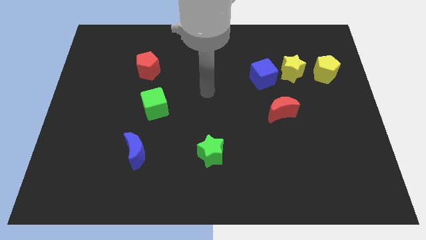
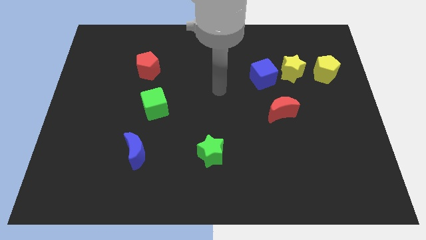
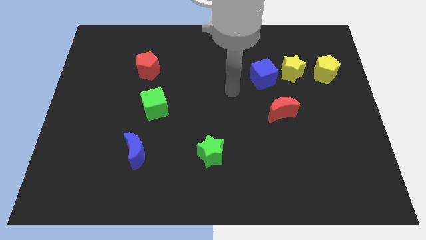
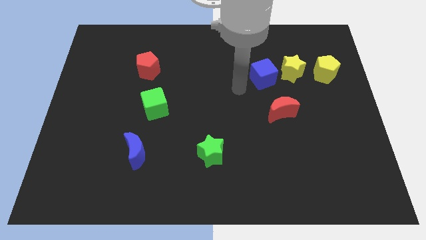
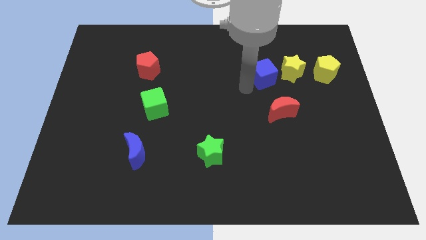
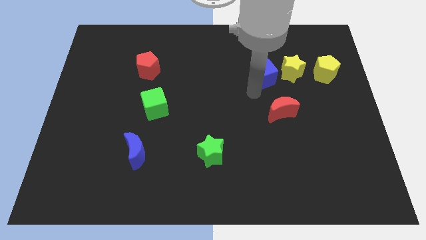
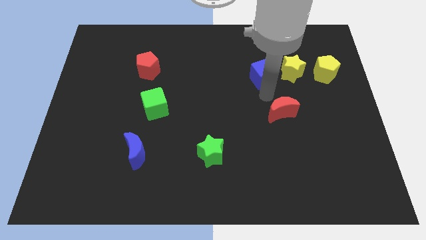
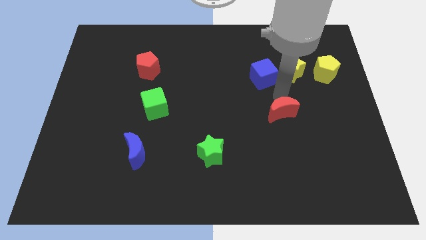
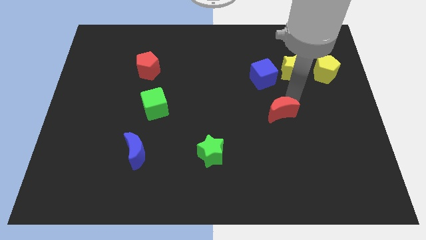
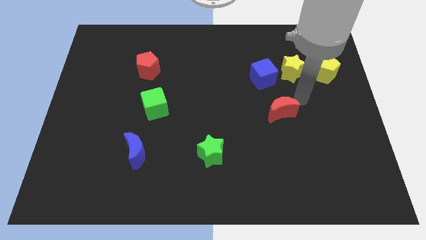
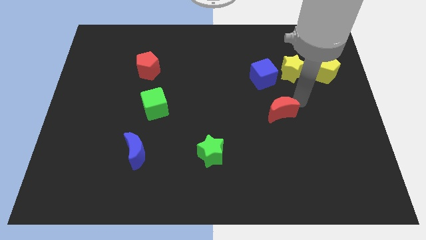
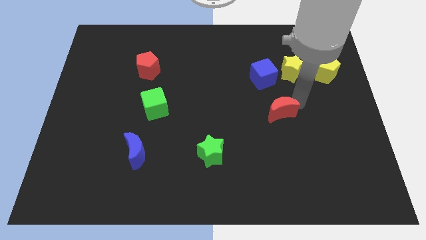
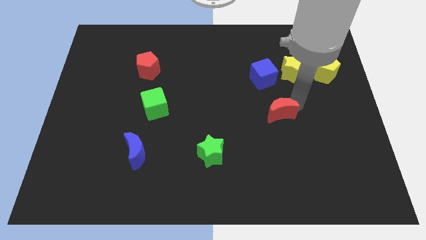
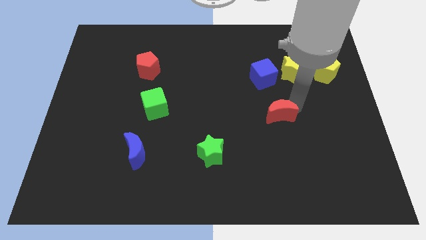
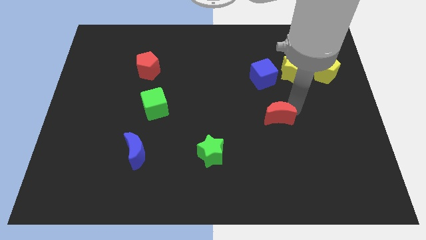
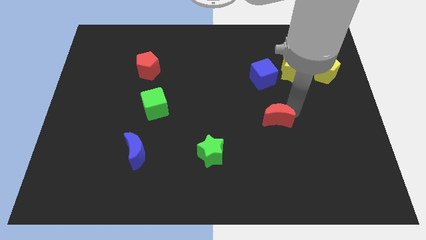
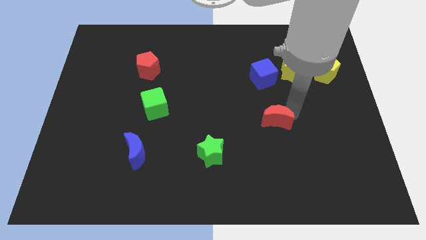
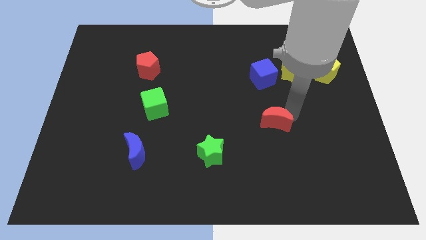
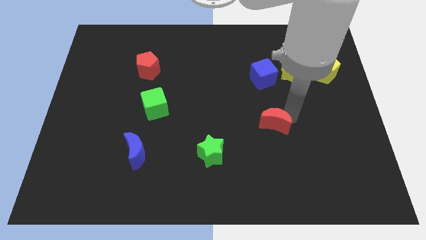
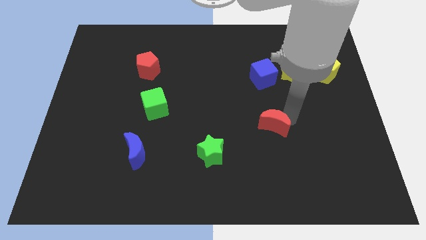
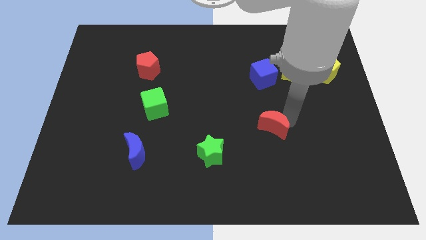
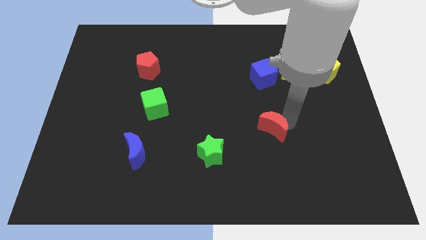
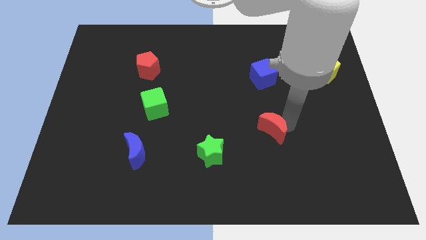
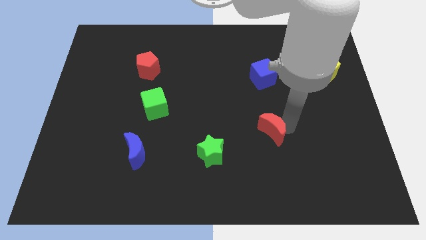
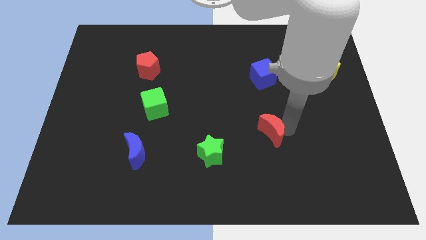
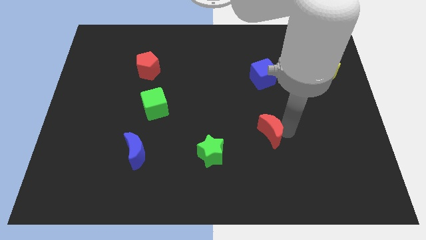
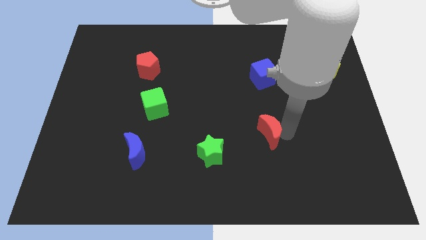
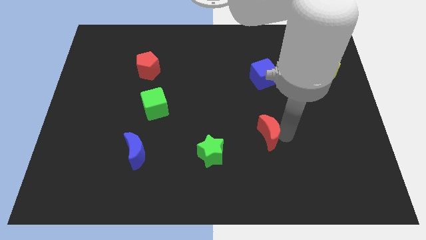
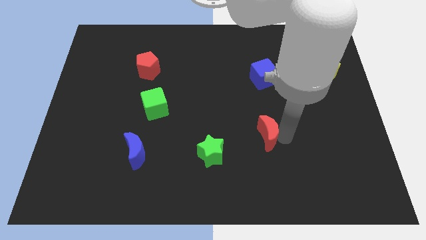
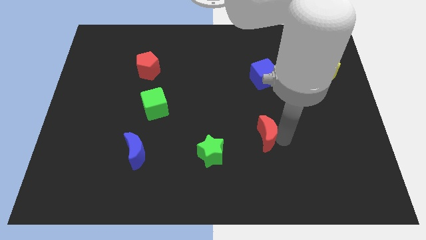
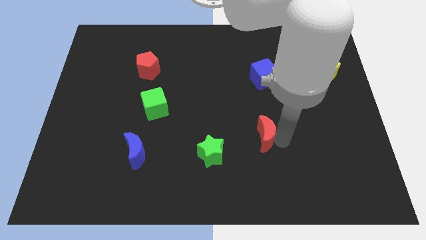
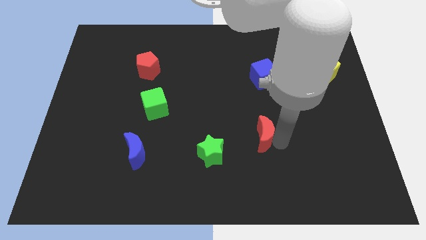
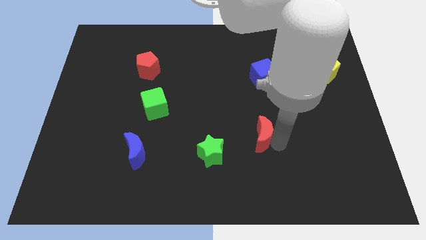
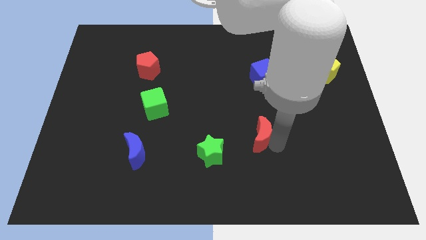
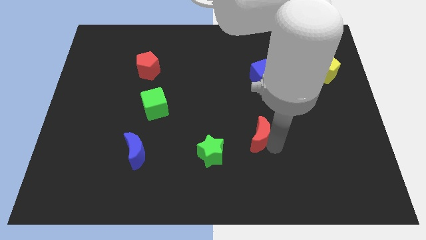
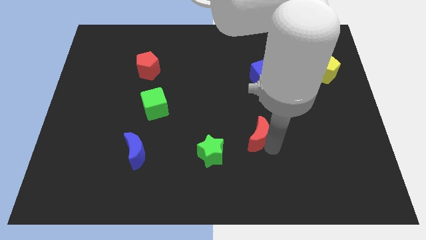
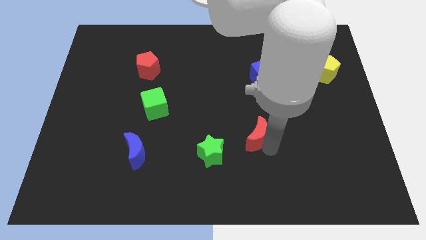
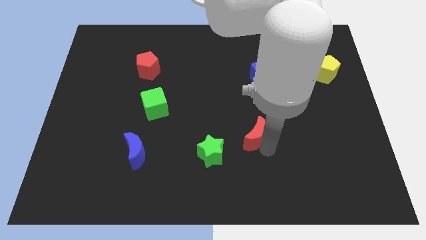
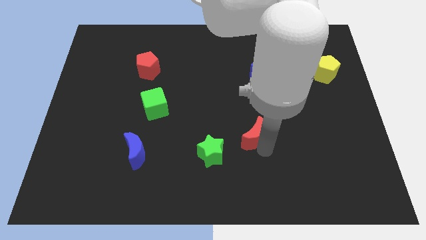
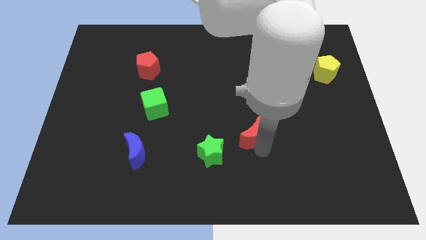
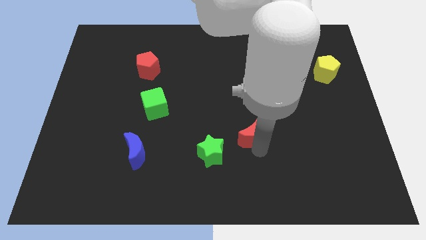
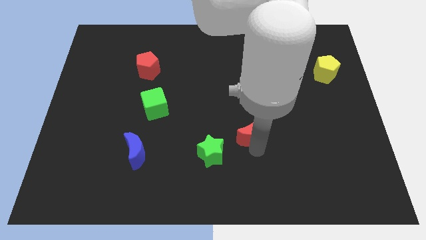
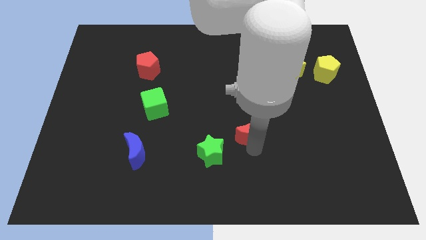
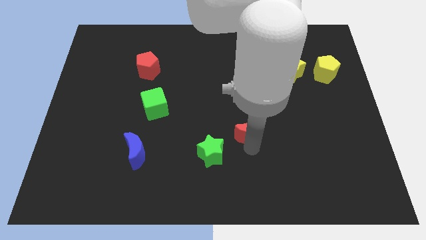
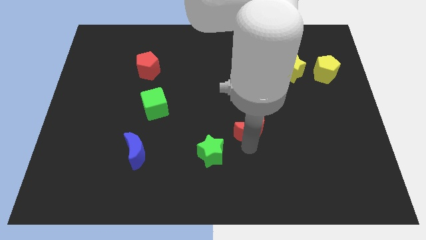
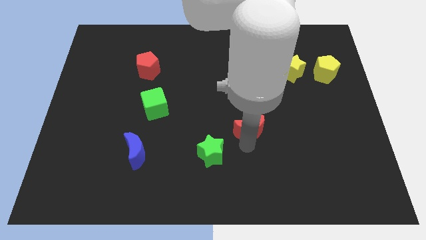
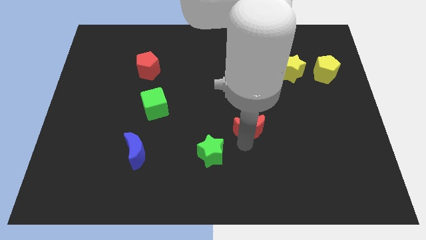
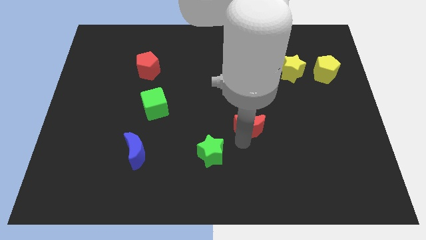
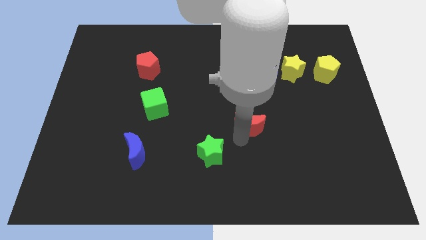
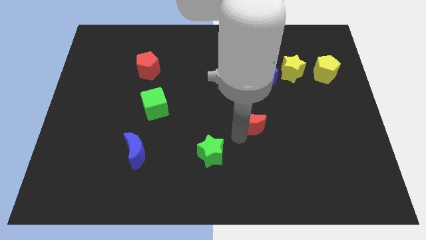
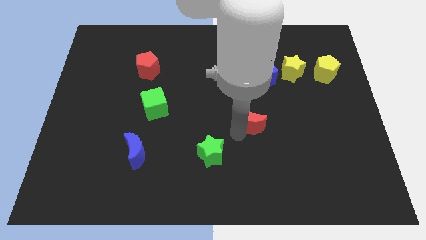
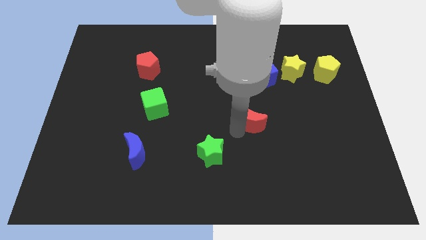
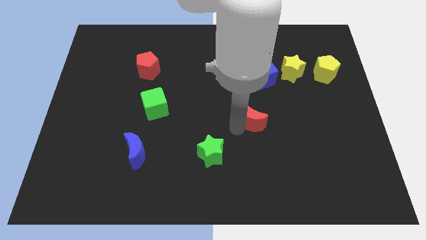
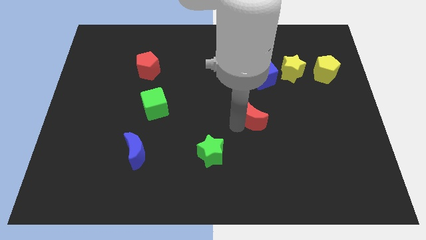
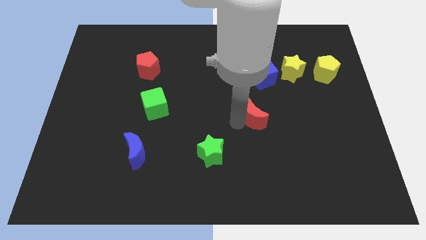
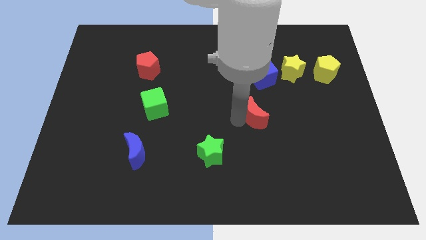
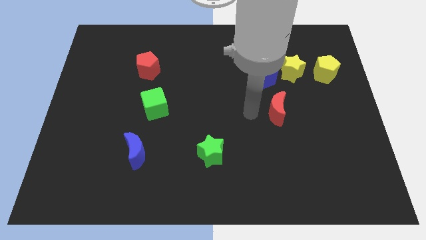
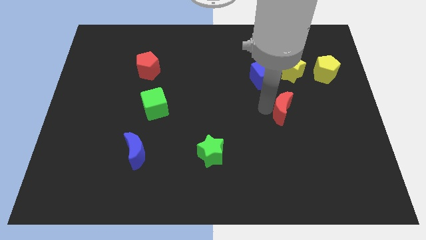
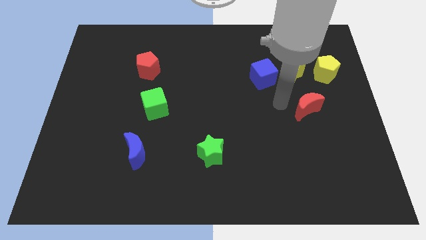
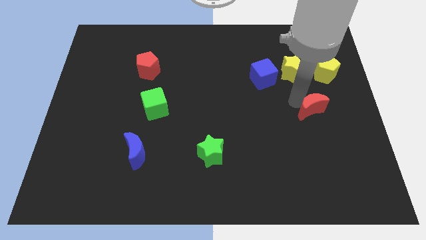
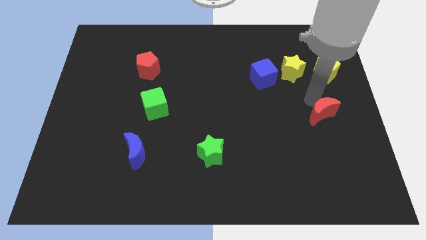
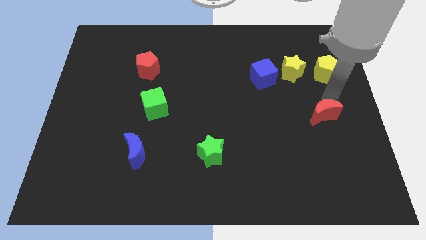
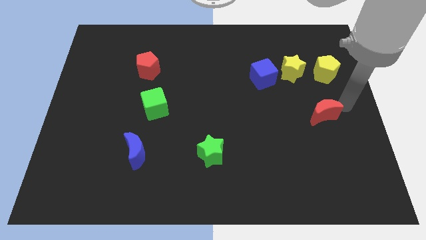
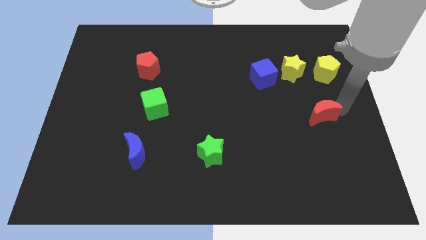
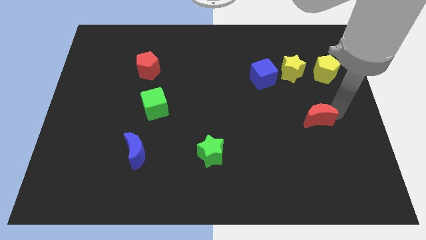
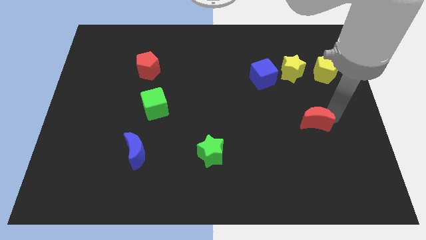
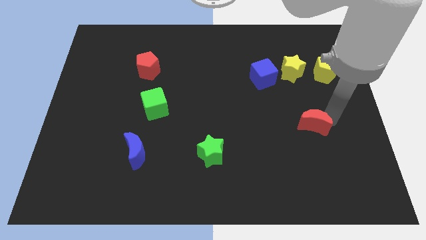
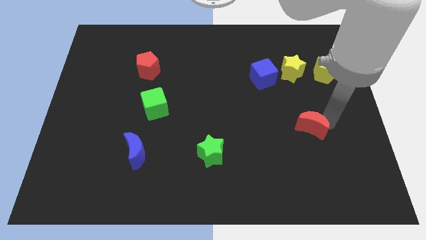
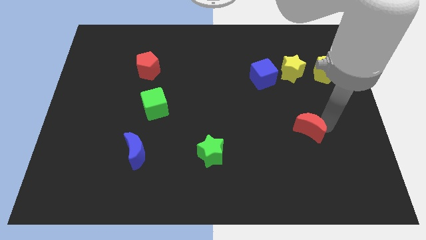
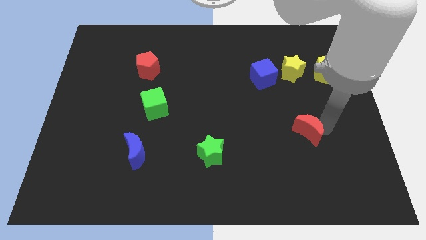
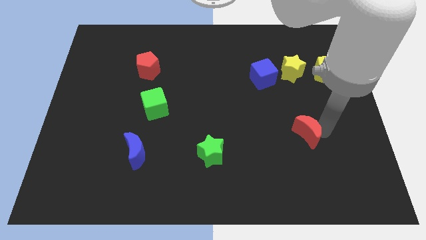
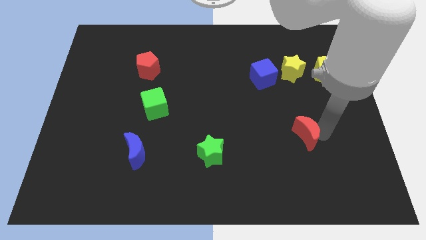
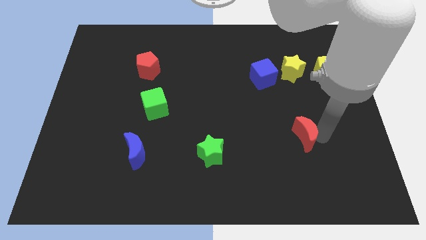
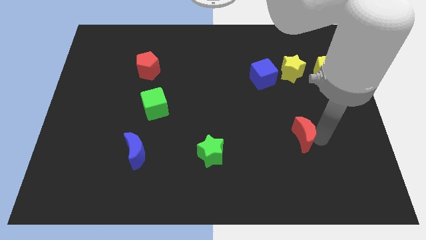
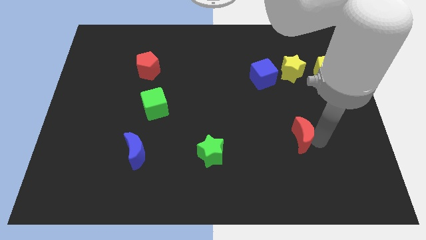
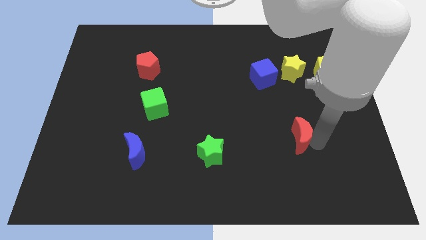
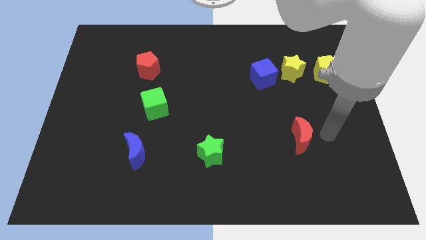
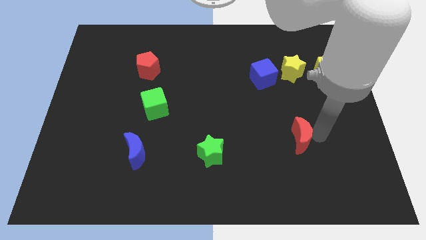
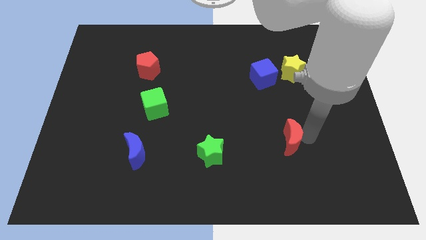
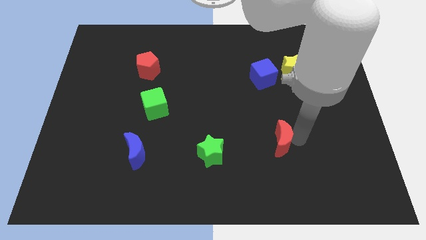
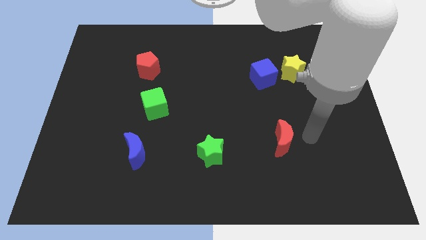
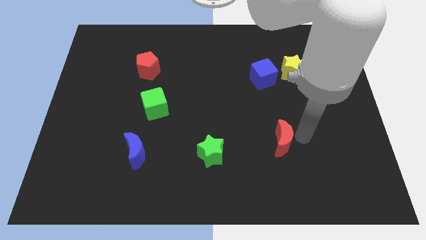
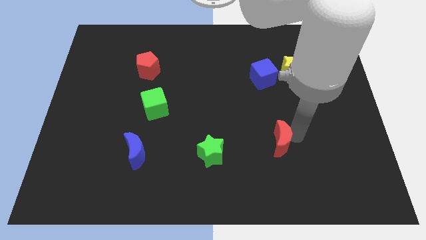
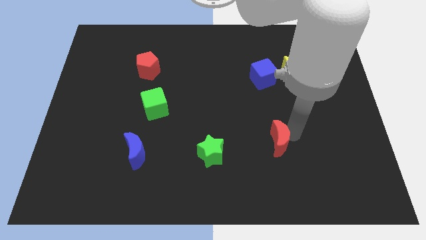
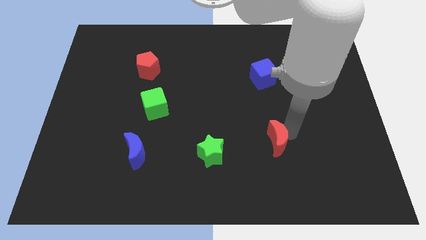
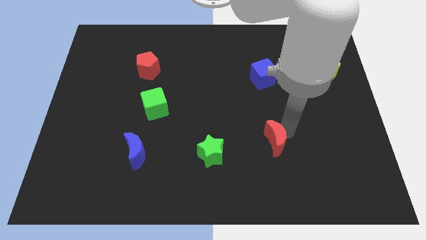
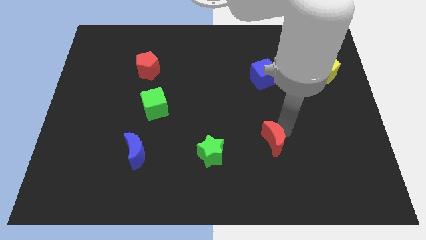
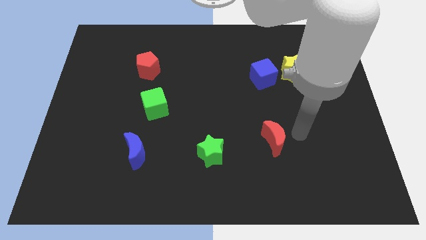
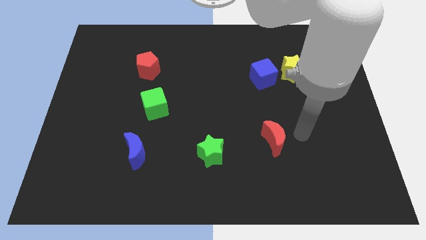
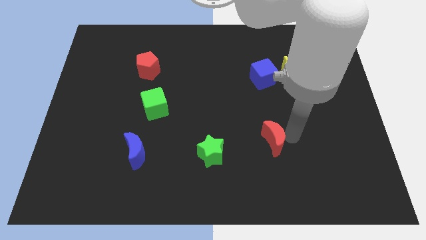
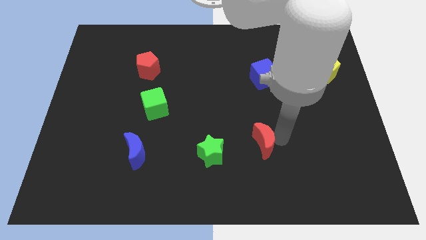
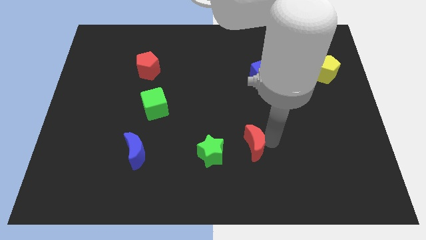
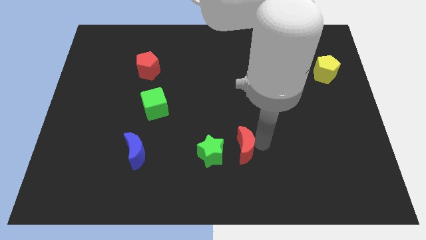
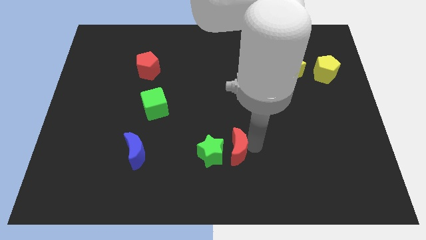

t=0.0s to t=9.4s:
put the red moon next to the green star
